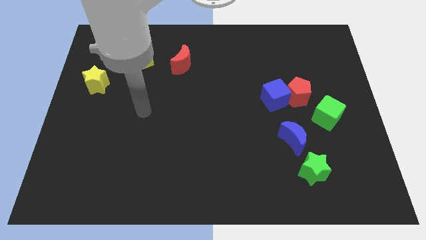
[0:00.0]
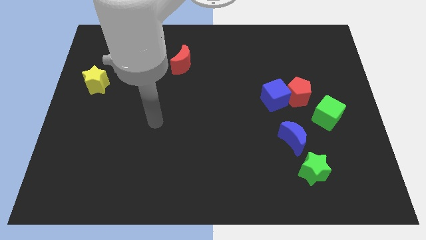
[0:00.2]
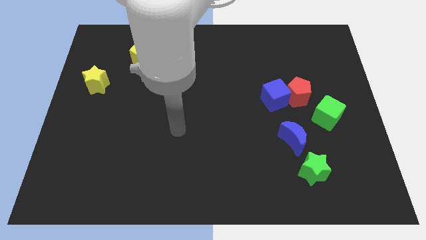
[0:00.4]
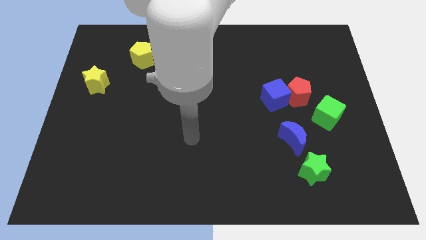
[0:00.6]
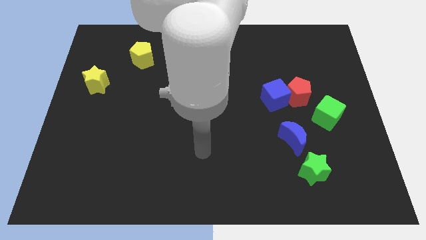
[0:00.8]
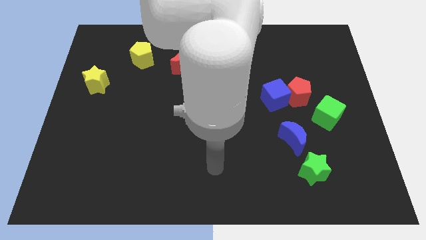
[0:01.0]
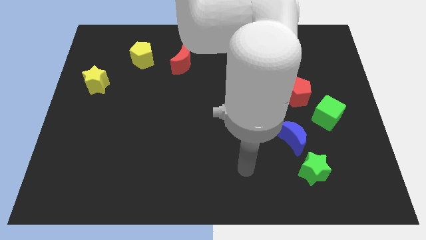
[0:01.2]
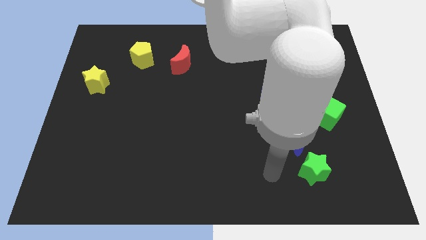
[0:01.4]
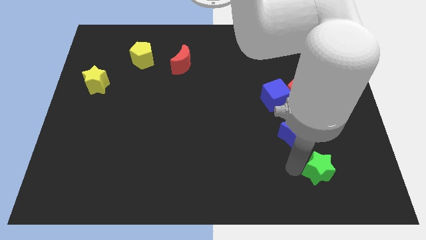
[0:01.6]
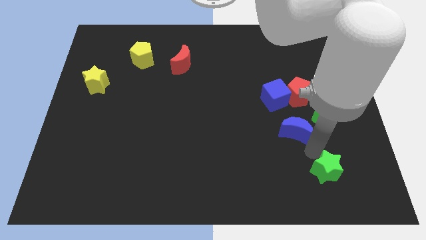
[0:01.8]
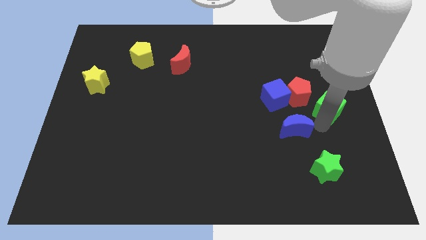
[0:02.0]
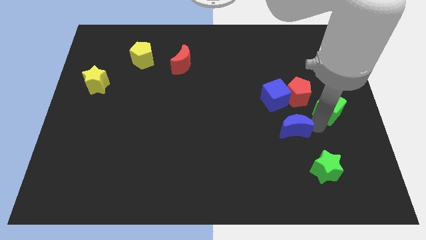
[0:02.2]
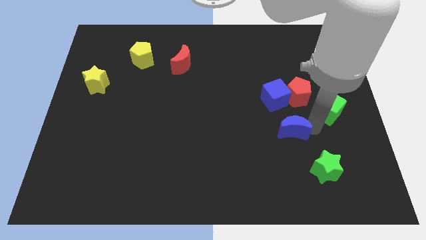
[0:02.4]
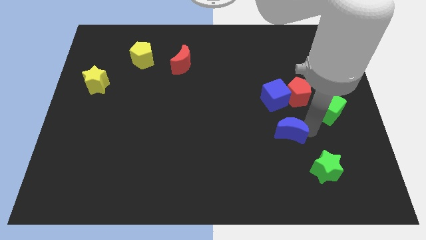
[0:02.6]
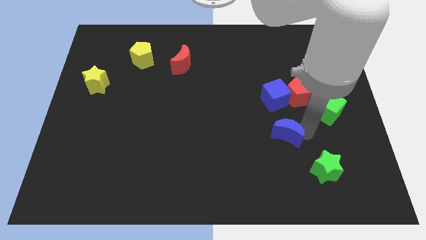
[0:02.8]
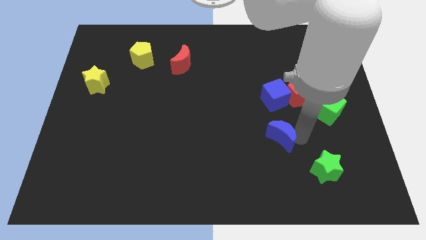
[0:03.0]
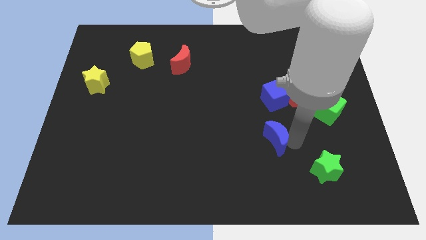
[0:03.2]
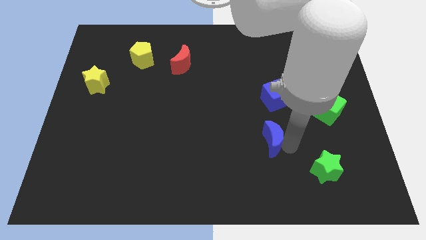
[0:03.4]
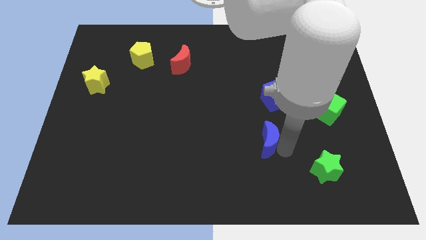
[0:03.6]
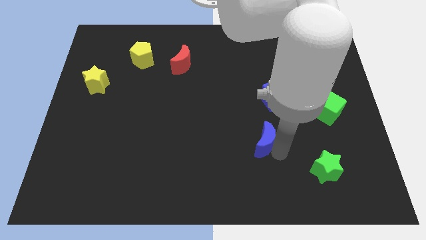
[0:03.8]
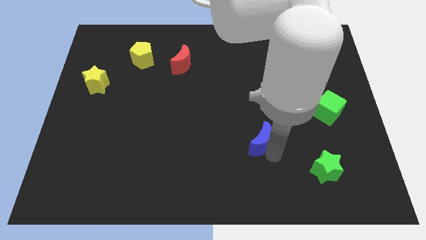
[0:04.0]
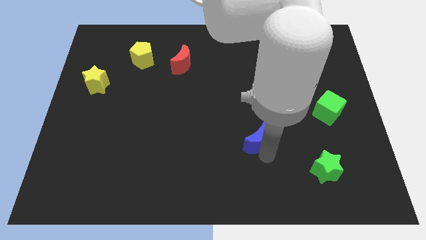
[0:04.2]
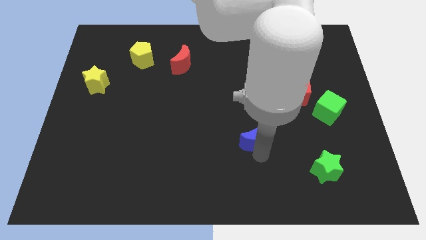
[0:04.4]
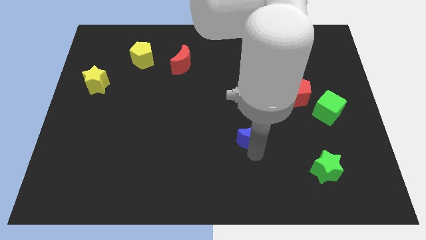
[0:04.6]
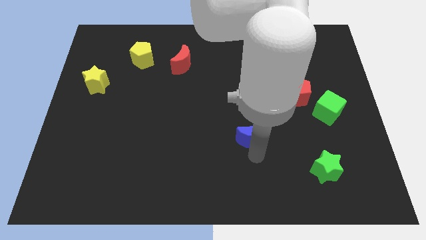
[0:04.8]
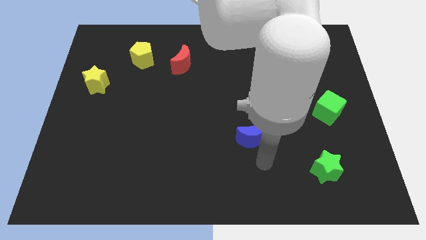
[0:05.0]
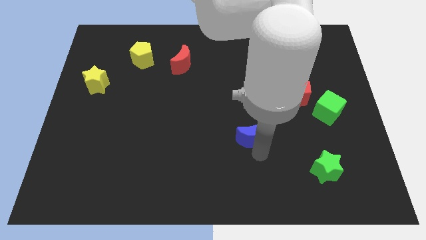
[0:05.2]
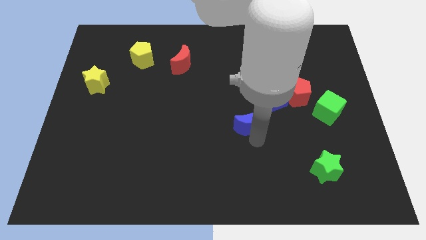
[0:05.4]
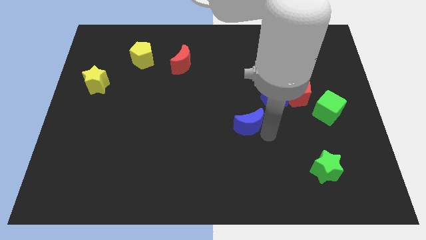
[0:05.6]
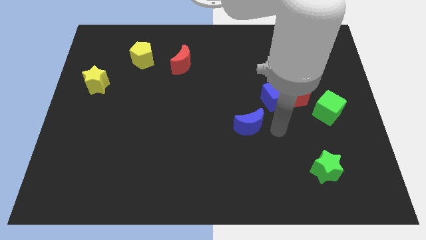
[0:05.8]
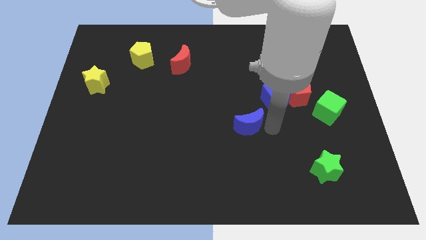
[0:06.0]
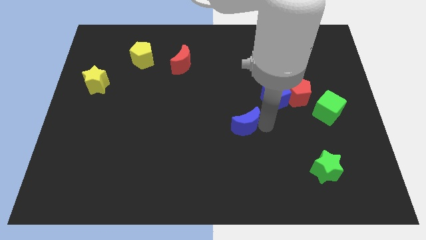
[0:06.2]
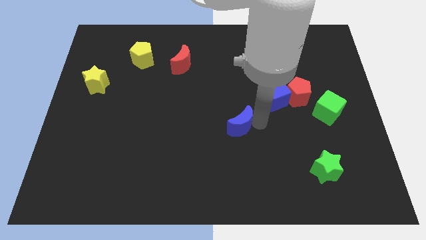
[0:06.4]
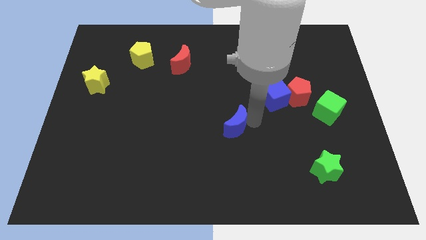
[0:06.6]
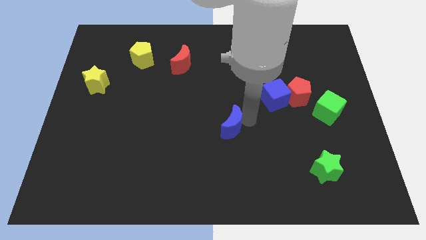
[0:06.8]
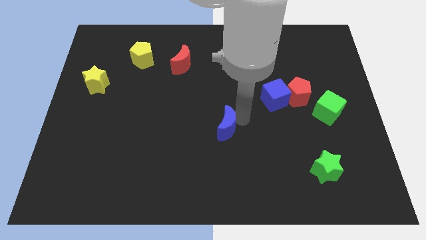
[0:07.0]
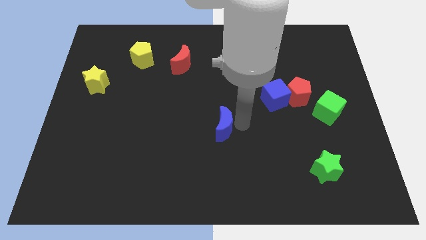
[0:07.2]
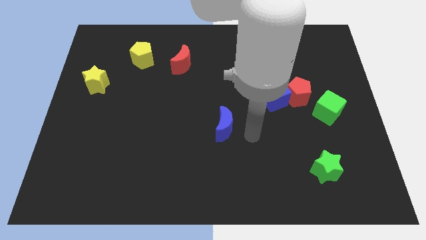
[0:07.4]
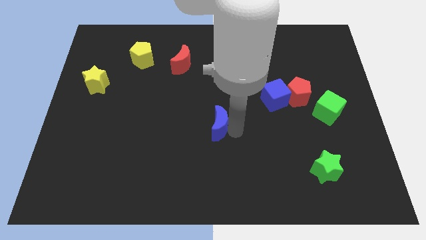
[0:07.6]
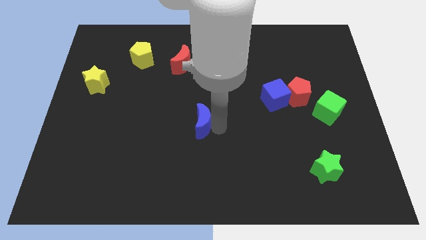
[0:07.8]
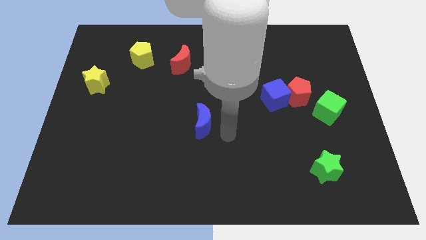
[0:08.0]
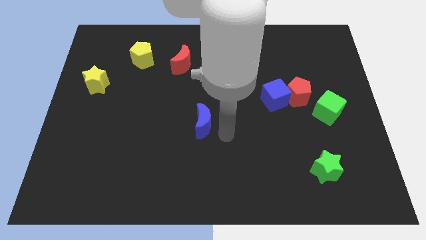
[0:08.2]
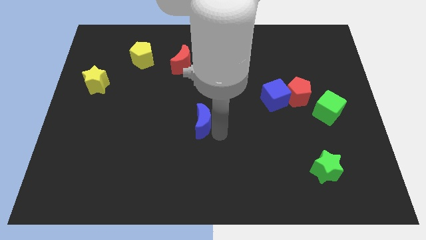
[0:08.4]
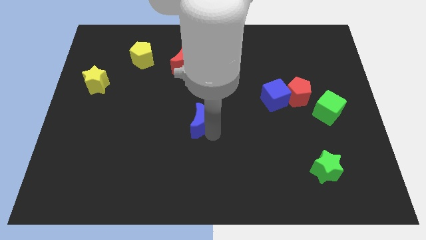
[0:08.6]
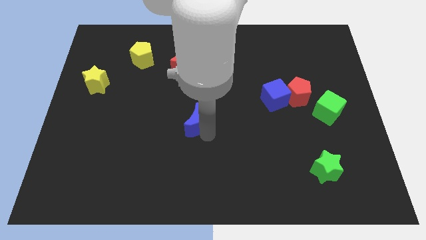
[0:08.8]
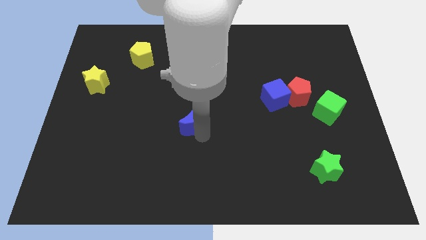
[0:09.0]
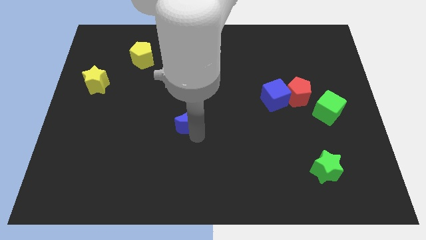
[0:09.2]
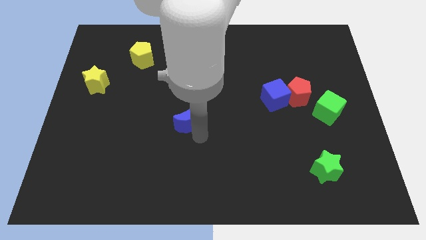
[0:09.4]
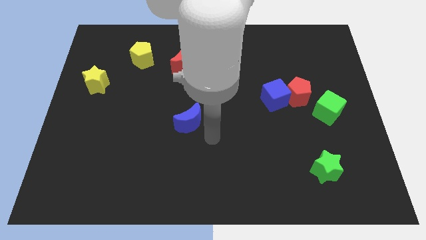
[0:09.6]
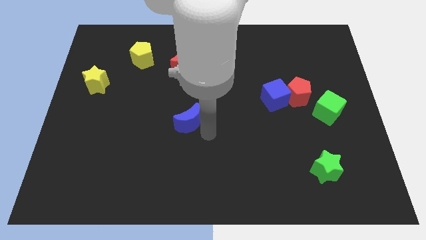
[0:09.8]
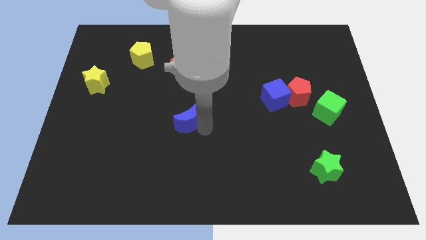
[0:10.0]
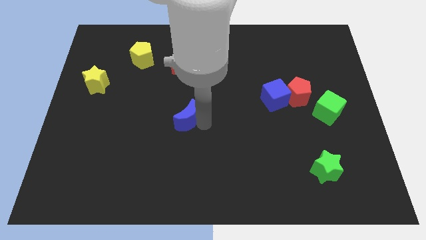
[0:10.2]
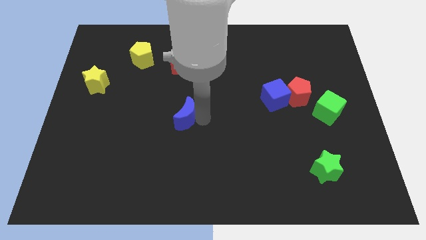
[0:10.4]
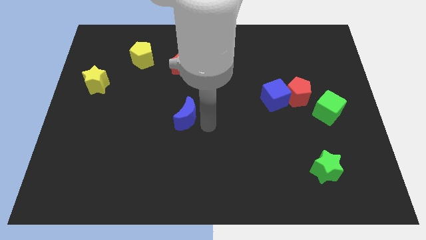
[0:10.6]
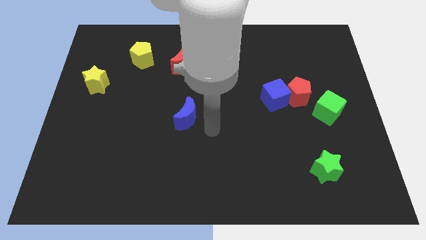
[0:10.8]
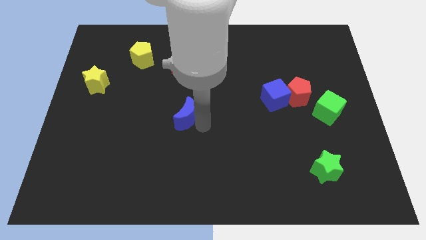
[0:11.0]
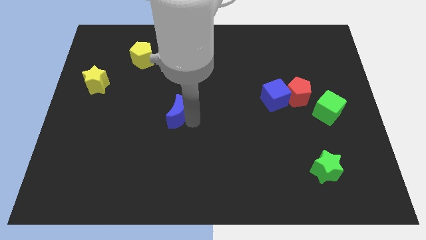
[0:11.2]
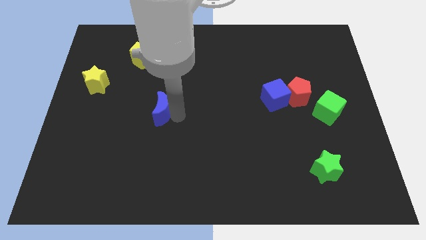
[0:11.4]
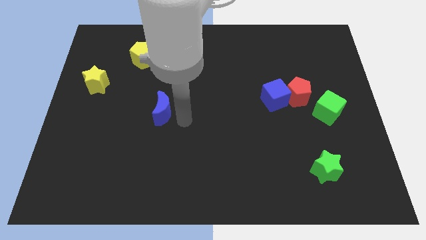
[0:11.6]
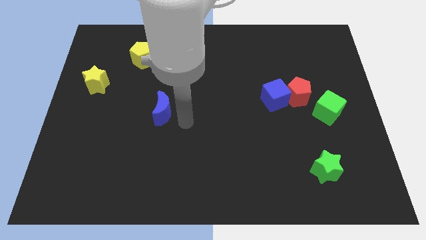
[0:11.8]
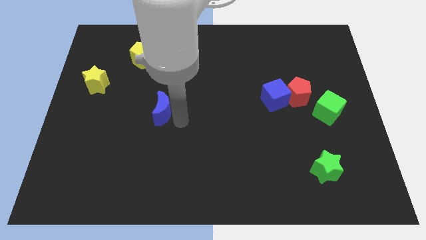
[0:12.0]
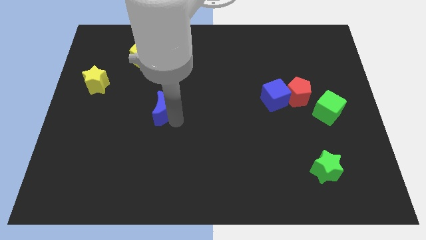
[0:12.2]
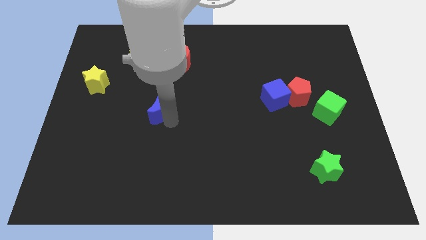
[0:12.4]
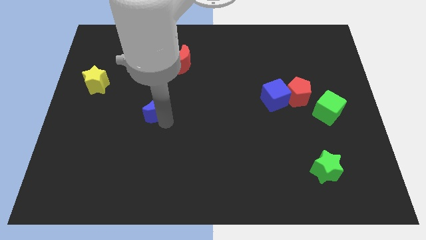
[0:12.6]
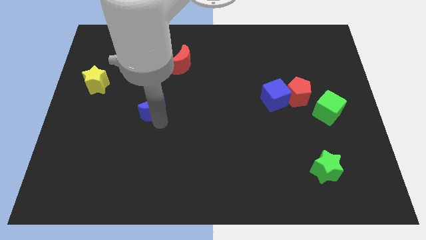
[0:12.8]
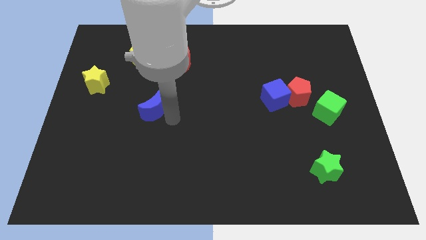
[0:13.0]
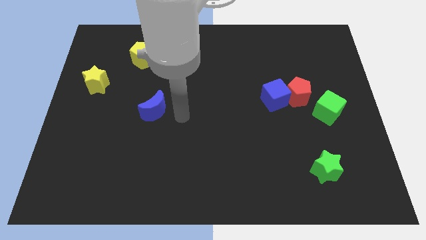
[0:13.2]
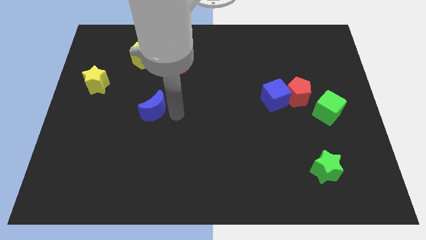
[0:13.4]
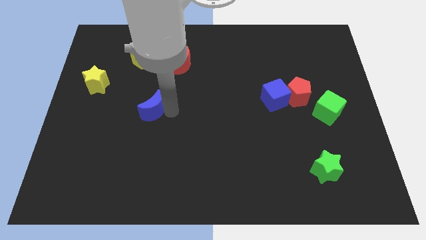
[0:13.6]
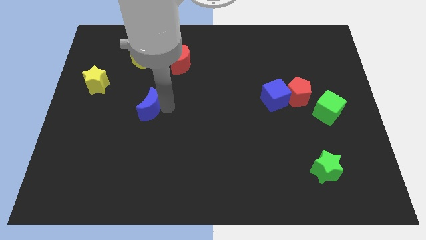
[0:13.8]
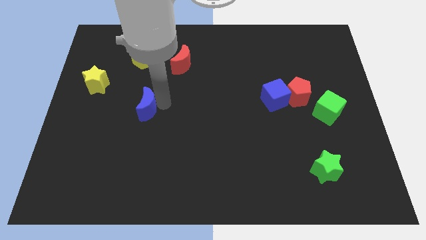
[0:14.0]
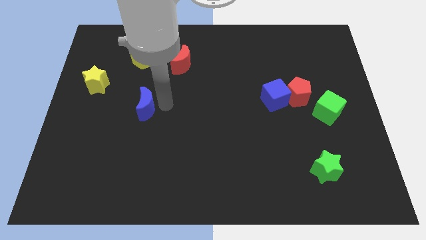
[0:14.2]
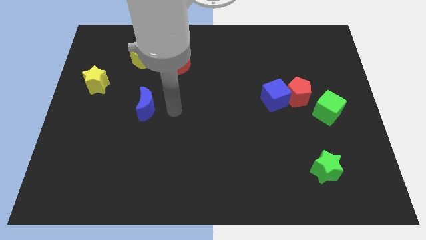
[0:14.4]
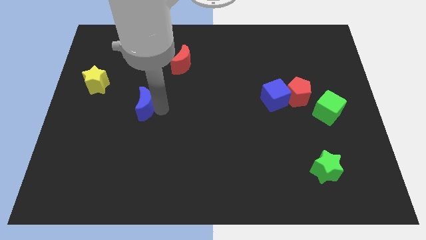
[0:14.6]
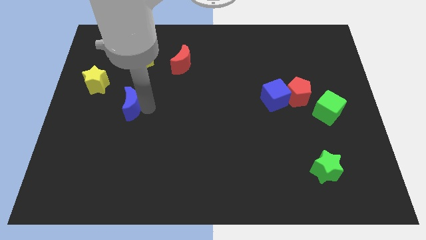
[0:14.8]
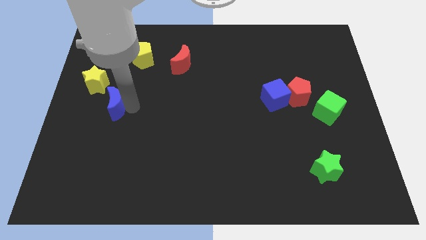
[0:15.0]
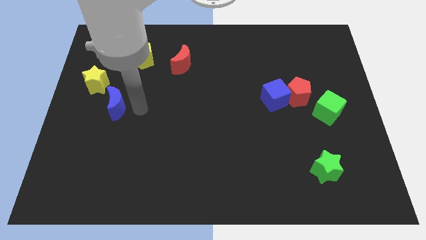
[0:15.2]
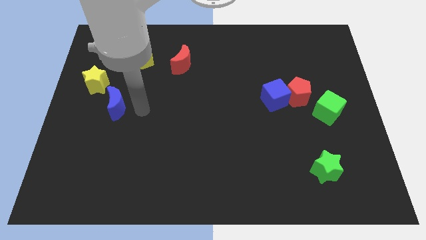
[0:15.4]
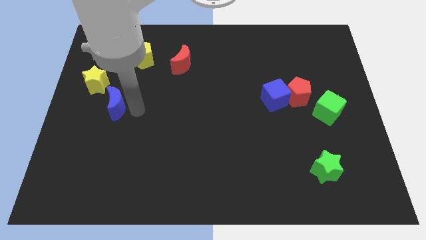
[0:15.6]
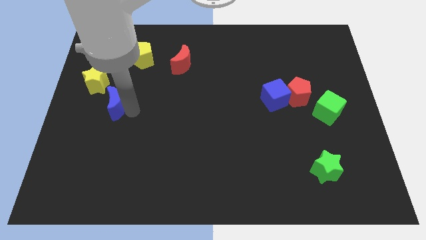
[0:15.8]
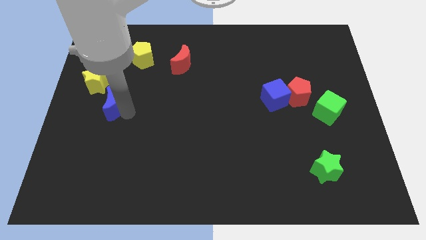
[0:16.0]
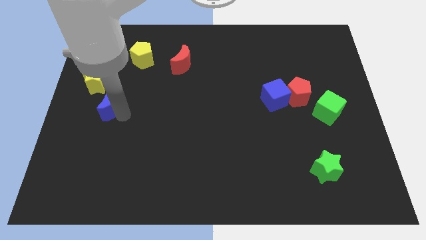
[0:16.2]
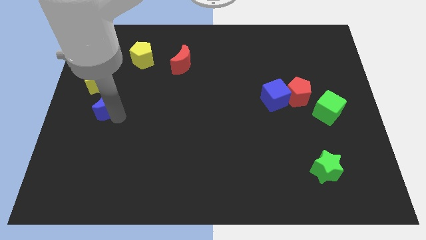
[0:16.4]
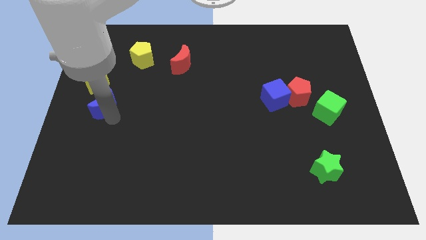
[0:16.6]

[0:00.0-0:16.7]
move the blue moon to the center left
